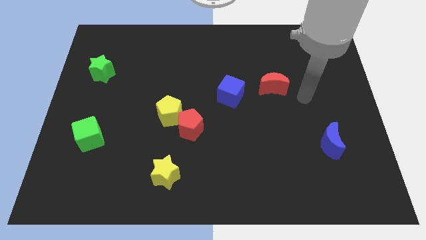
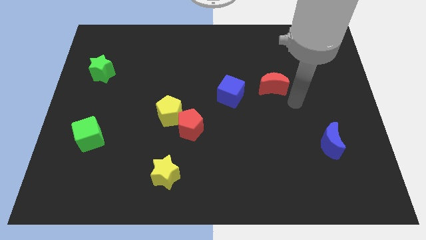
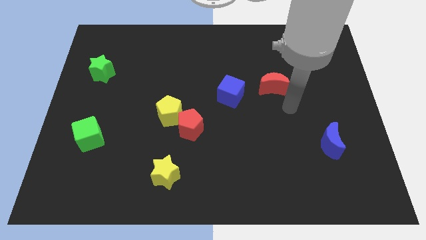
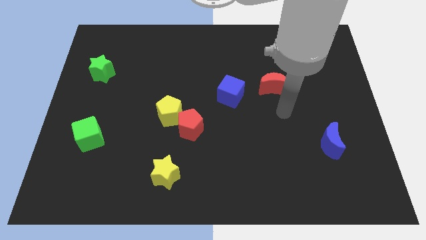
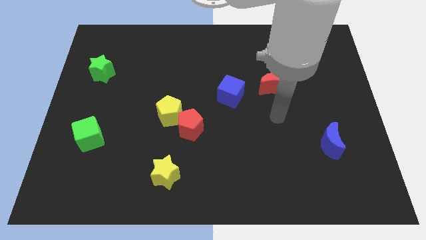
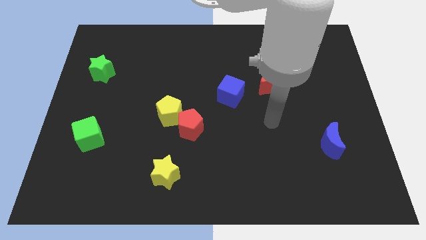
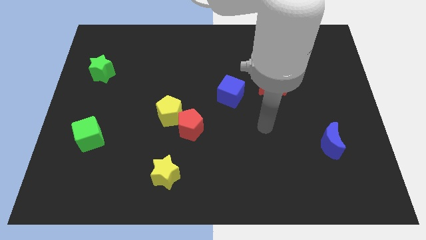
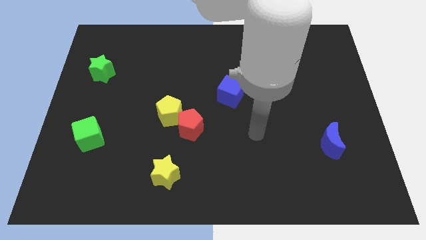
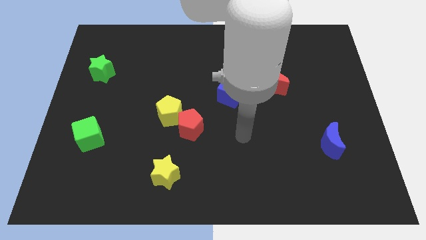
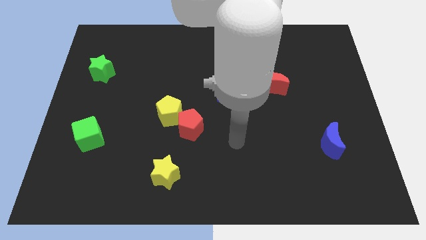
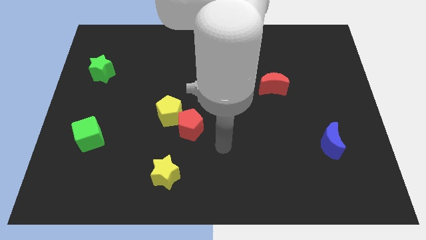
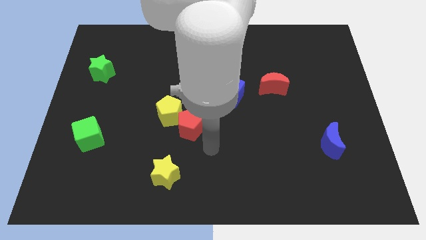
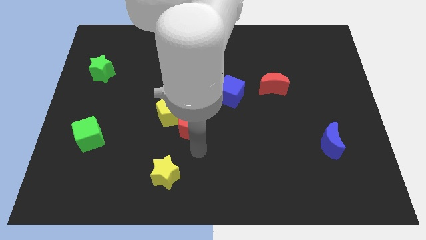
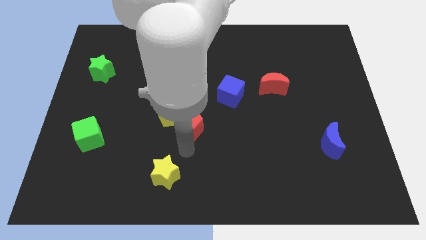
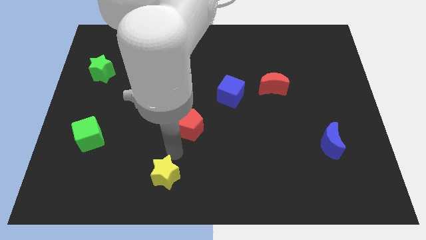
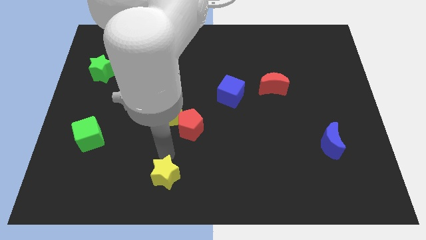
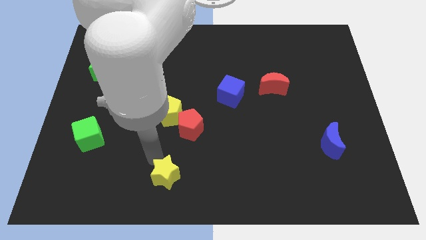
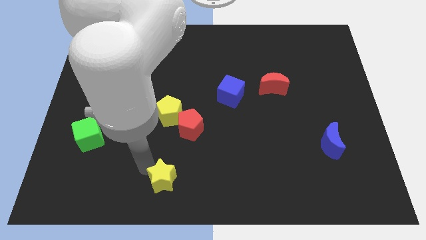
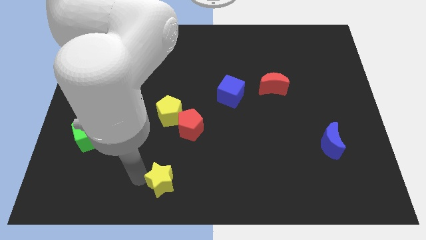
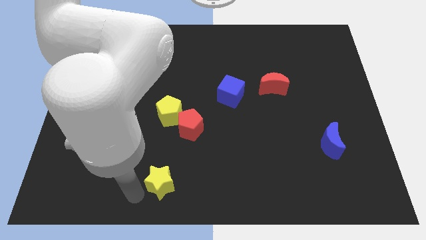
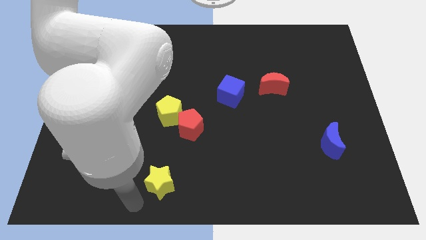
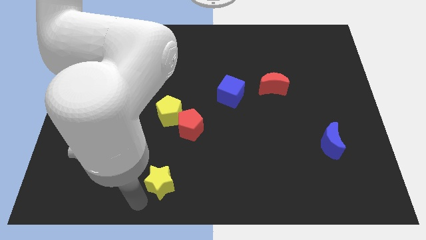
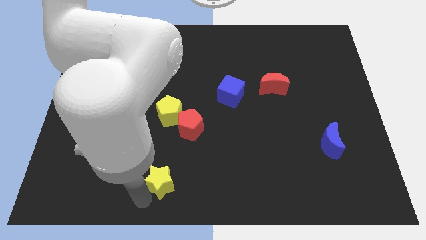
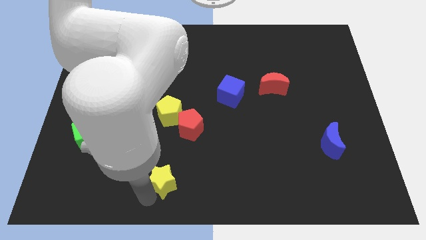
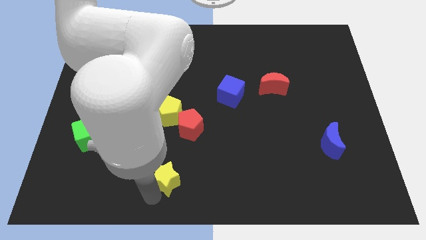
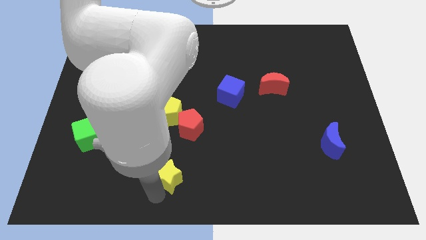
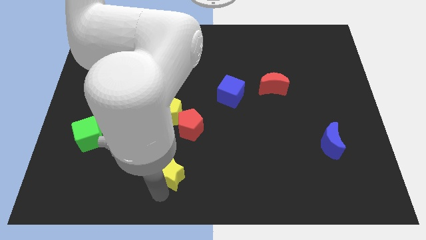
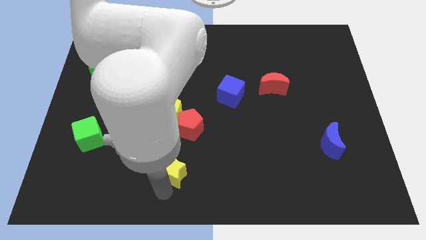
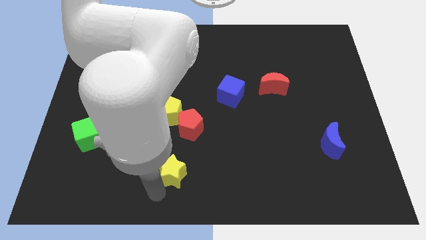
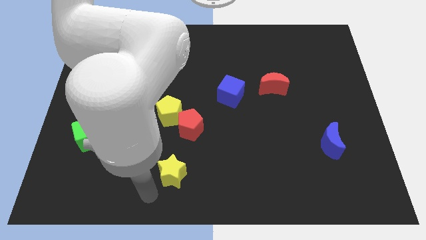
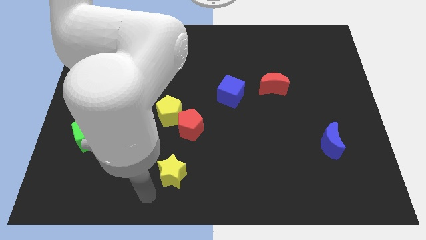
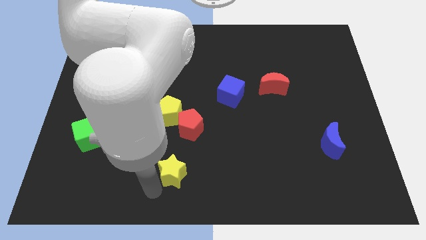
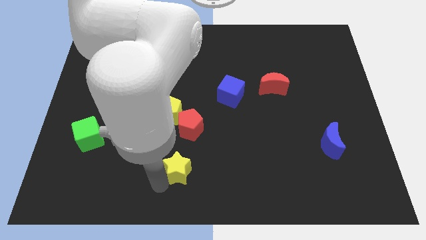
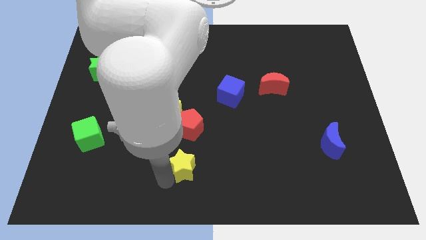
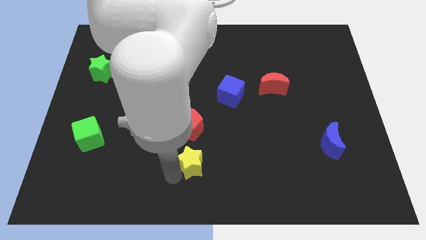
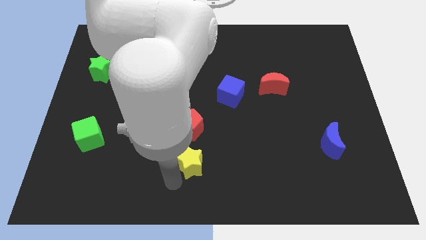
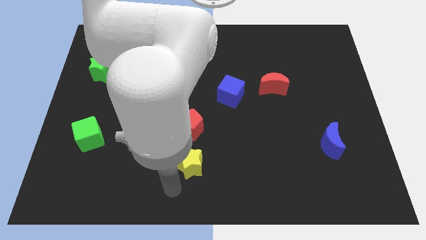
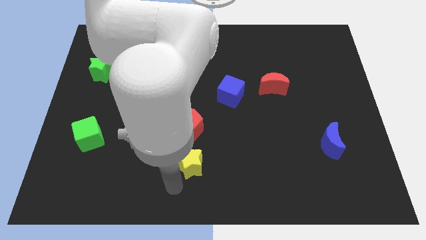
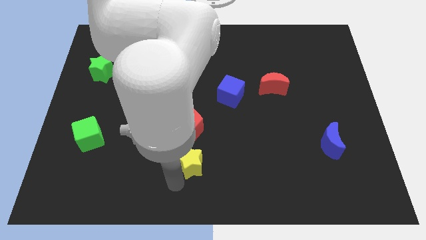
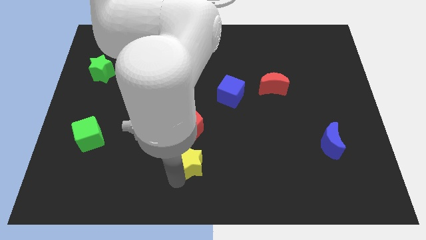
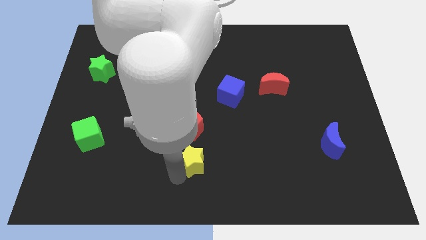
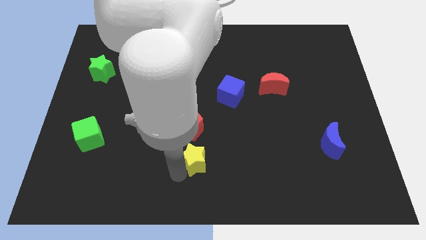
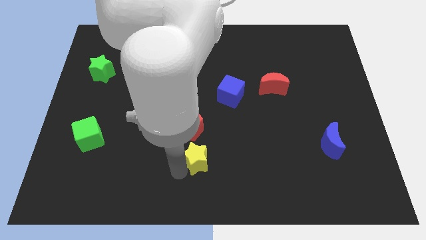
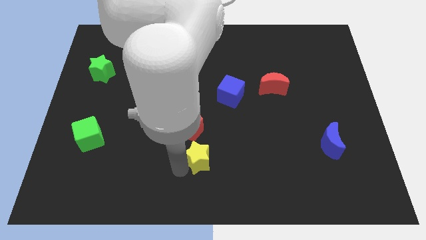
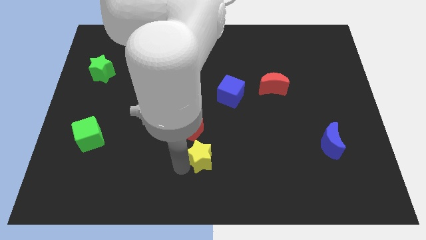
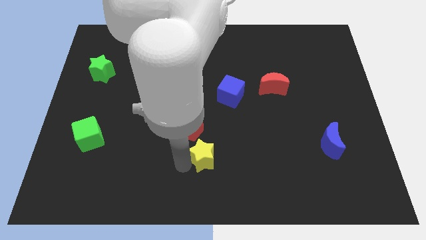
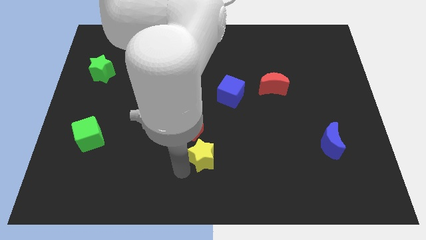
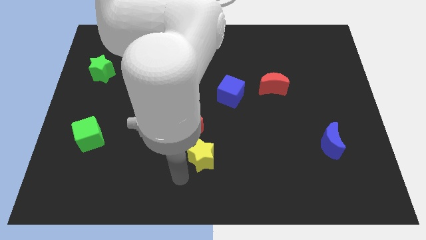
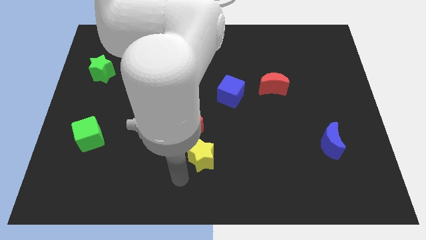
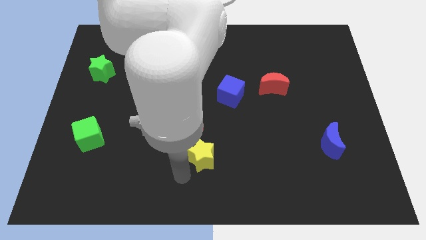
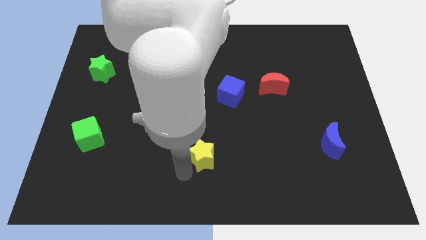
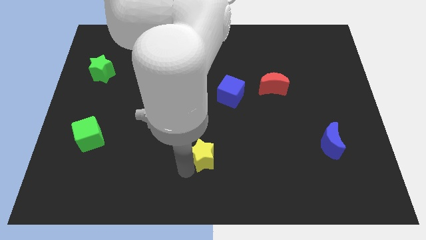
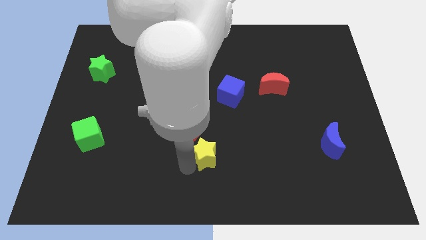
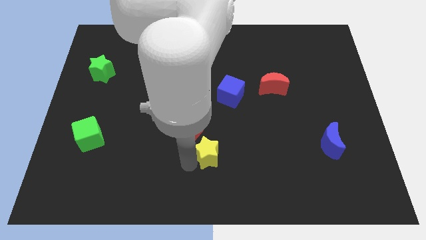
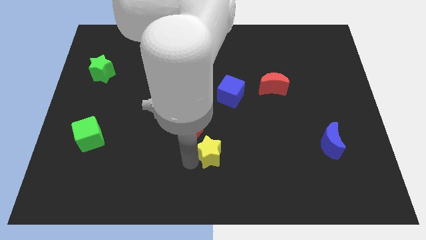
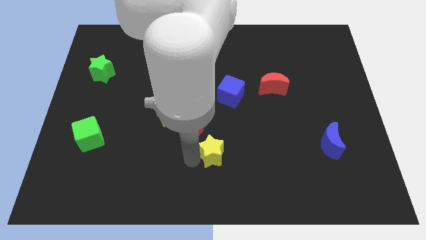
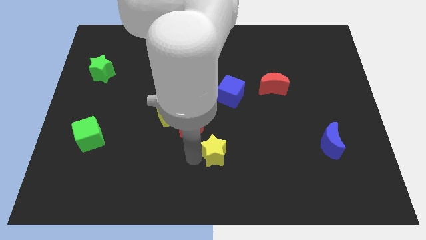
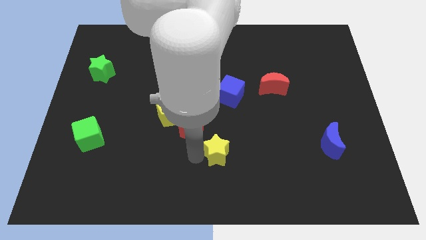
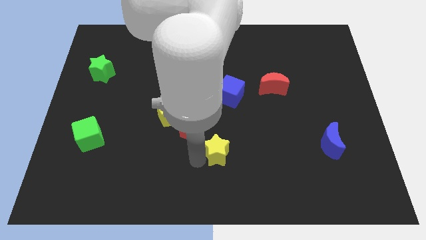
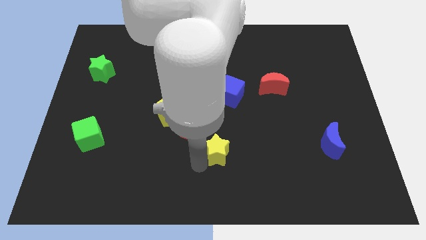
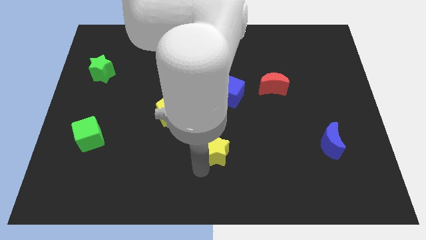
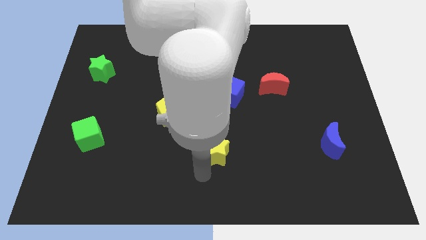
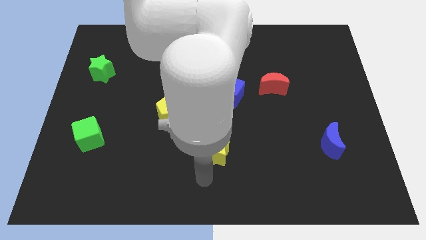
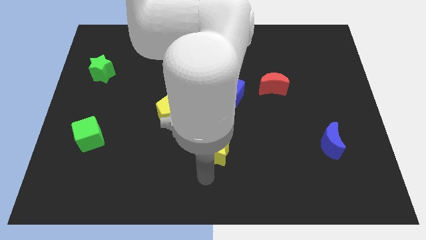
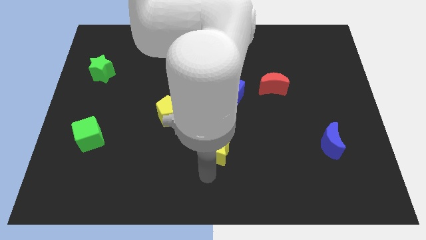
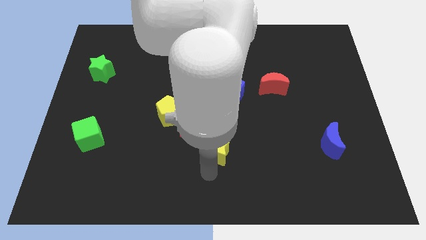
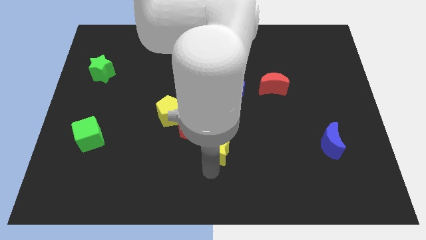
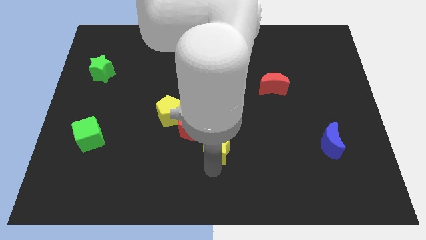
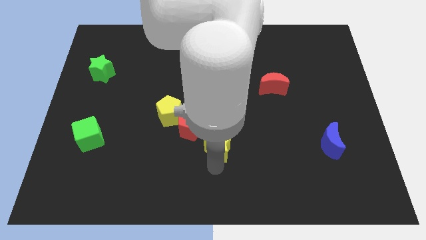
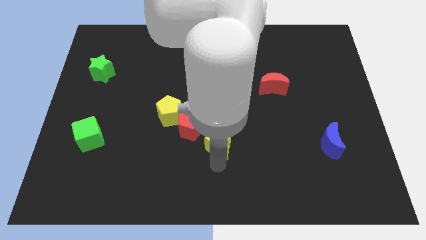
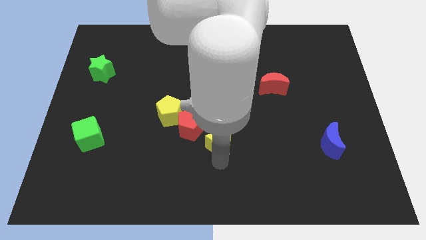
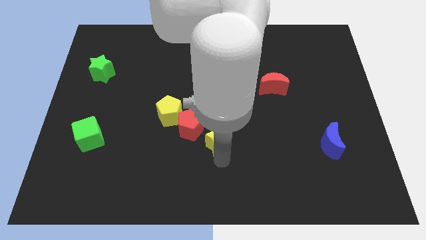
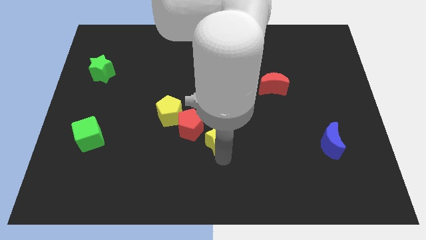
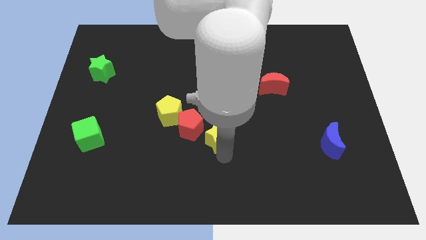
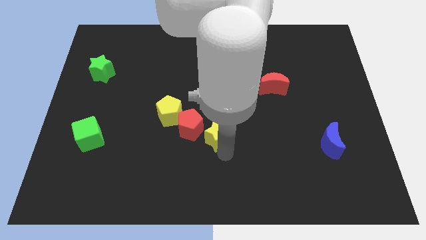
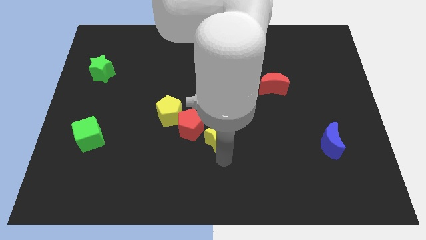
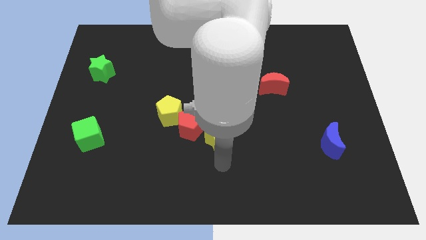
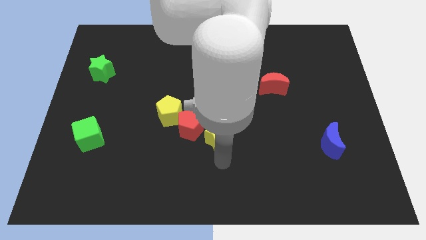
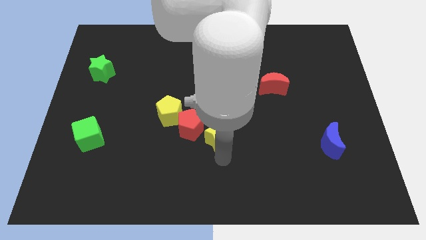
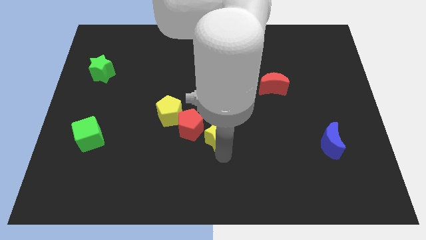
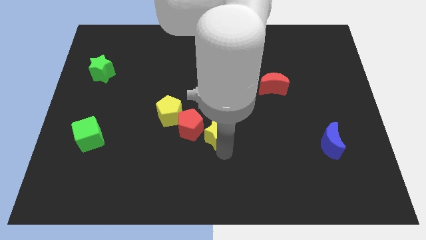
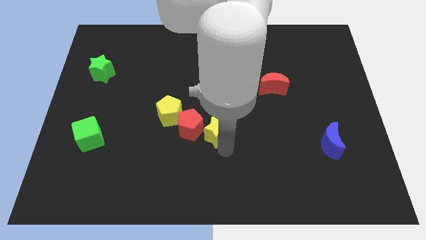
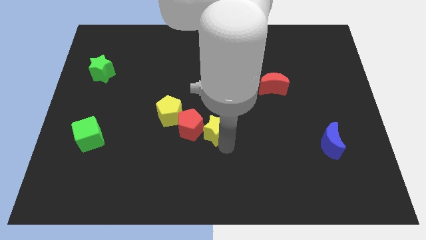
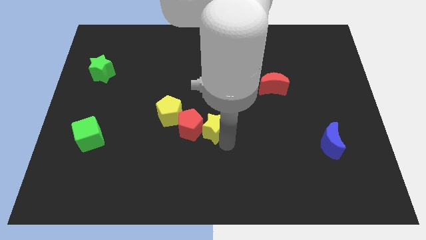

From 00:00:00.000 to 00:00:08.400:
move the yellow star to the right side of the yellow pentagon
